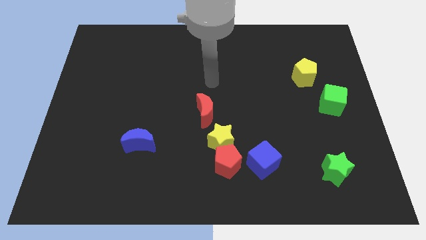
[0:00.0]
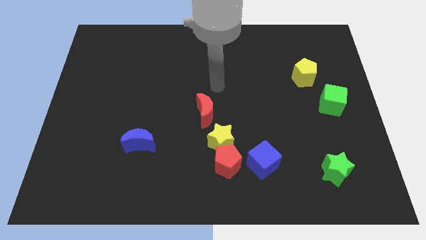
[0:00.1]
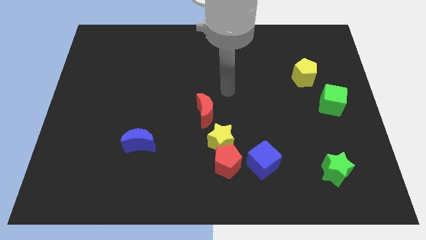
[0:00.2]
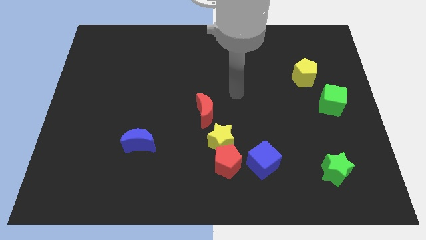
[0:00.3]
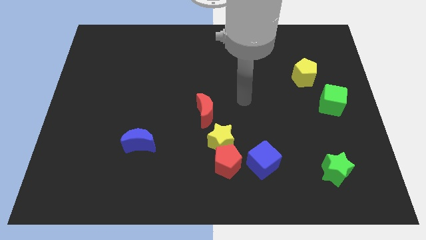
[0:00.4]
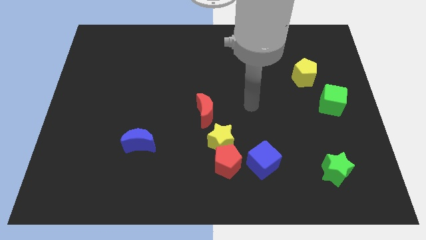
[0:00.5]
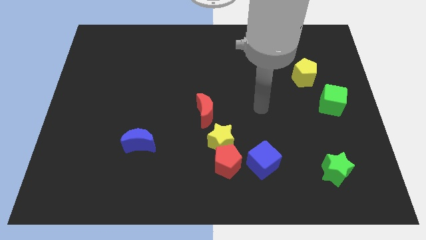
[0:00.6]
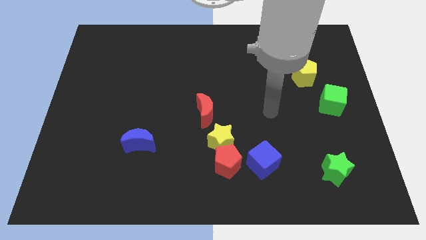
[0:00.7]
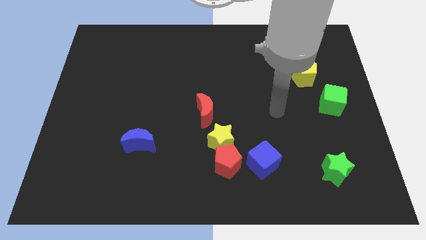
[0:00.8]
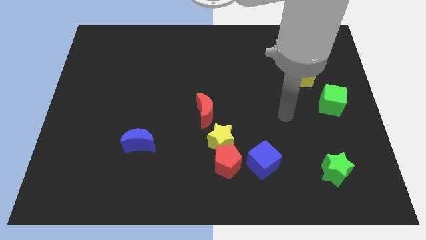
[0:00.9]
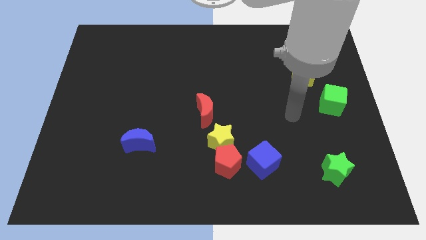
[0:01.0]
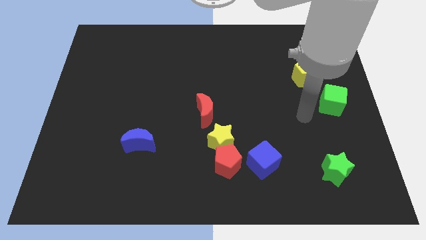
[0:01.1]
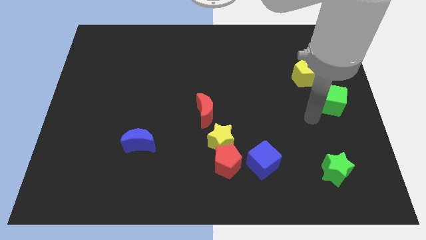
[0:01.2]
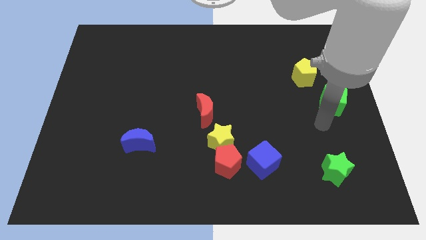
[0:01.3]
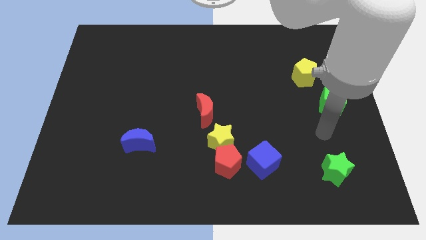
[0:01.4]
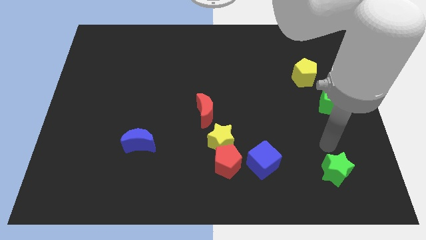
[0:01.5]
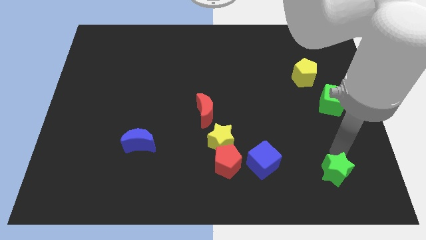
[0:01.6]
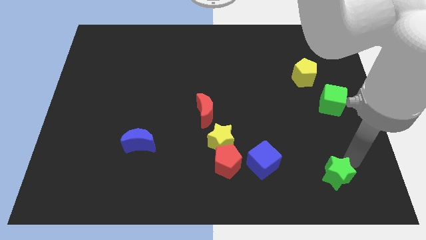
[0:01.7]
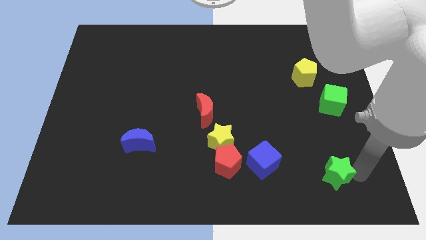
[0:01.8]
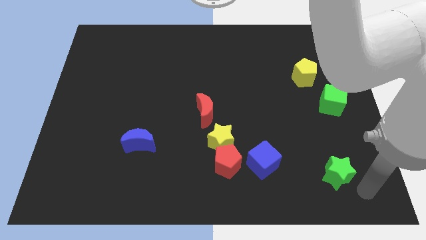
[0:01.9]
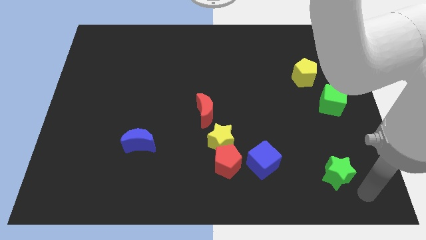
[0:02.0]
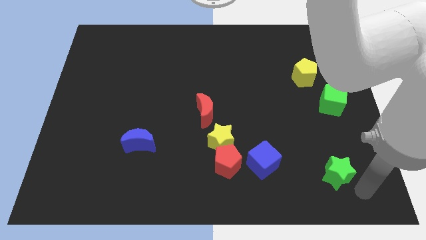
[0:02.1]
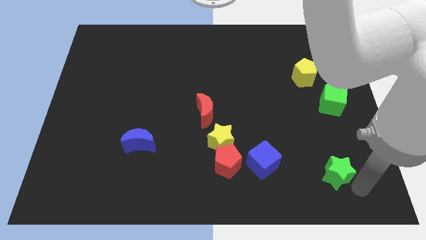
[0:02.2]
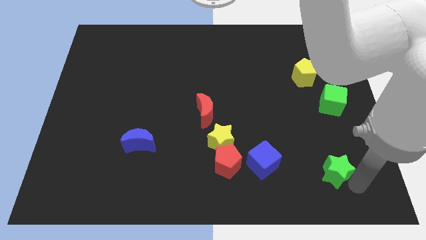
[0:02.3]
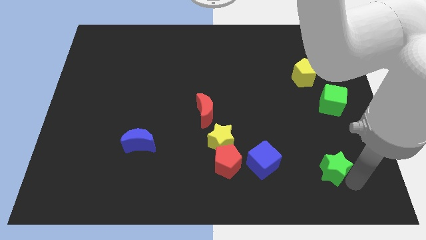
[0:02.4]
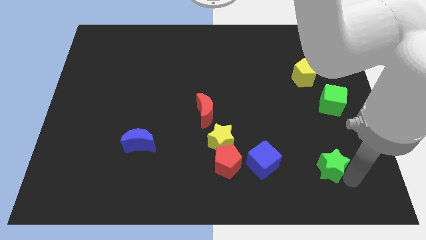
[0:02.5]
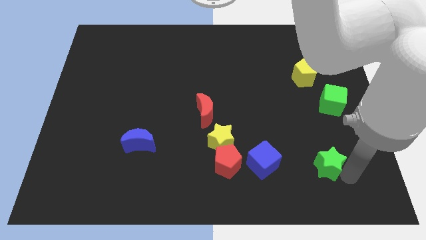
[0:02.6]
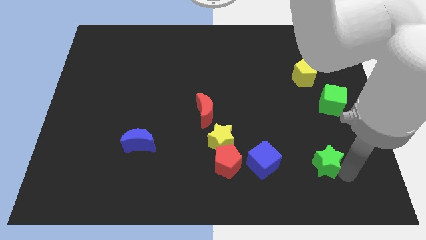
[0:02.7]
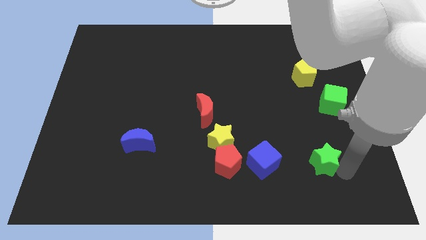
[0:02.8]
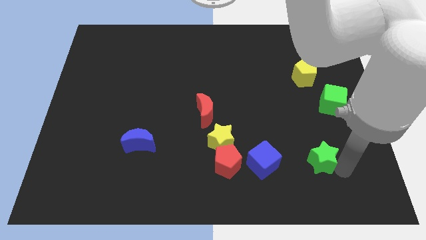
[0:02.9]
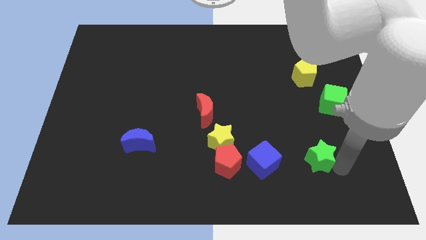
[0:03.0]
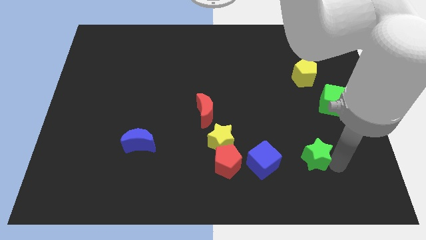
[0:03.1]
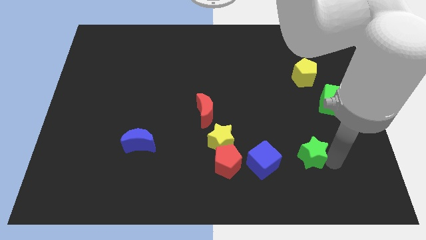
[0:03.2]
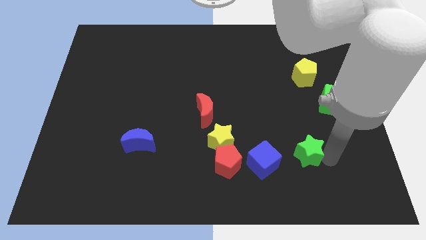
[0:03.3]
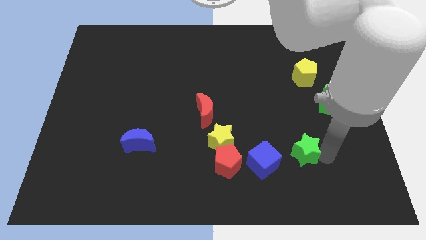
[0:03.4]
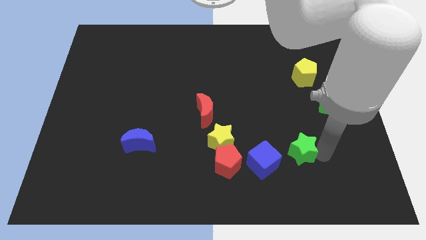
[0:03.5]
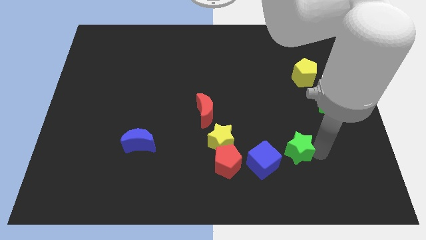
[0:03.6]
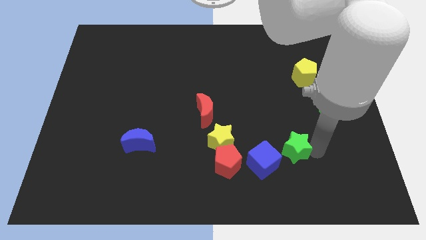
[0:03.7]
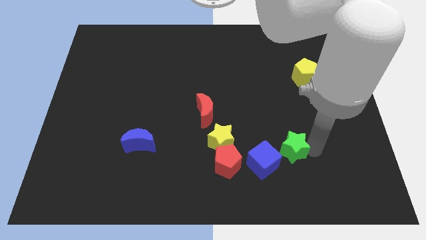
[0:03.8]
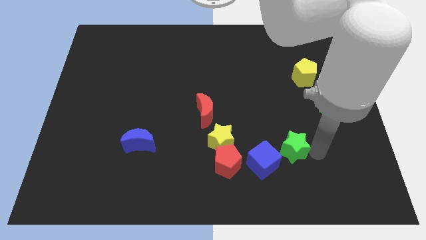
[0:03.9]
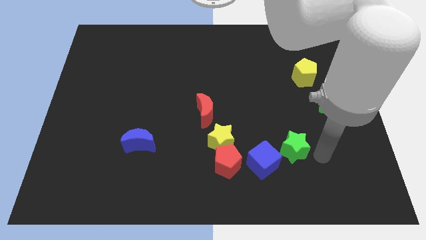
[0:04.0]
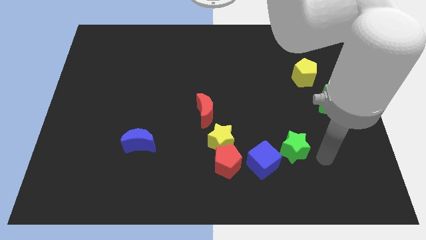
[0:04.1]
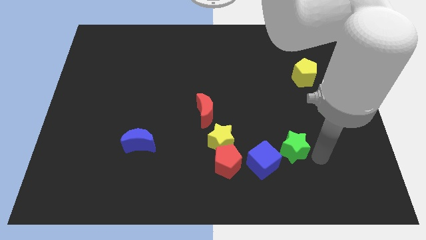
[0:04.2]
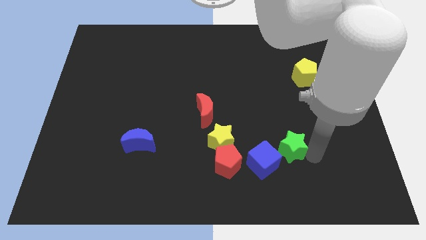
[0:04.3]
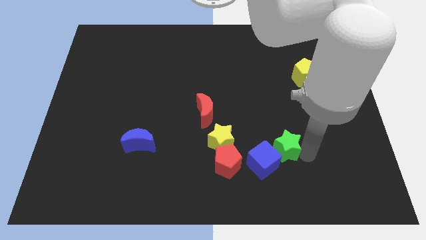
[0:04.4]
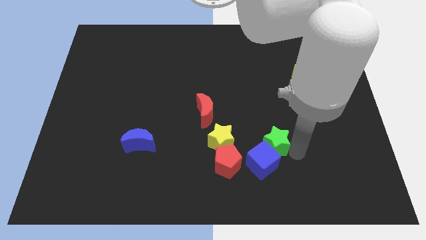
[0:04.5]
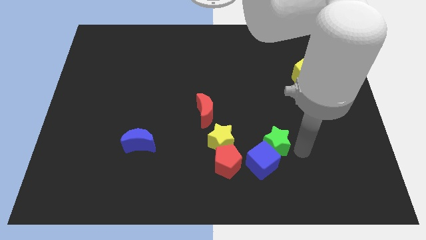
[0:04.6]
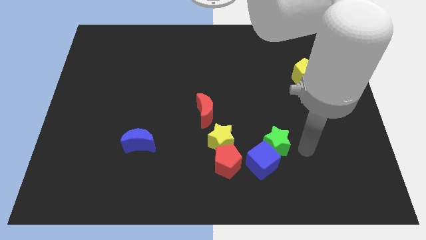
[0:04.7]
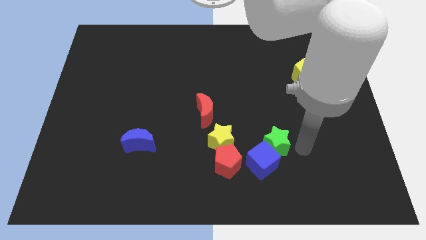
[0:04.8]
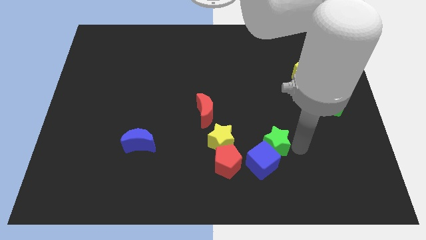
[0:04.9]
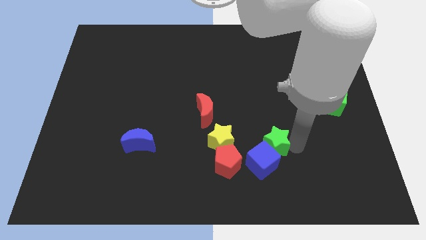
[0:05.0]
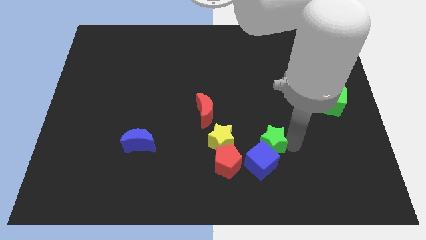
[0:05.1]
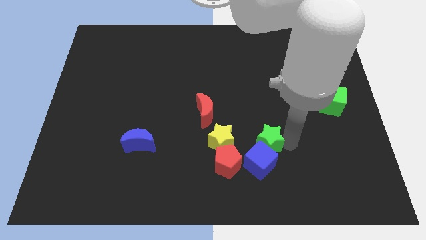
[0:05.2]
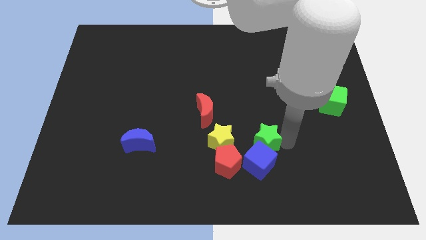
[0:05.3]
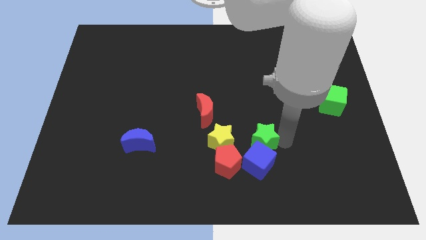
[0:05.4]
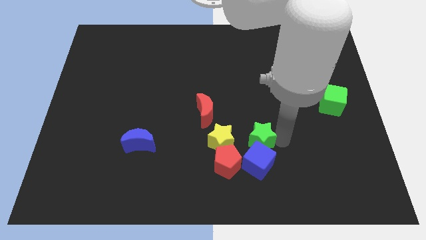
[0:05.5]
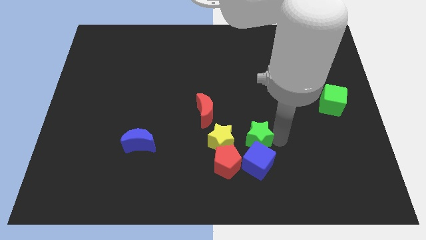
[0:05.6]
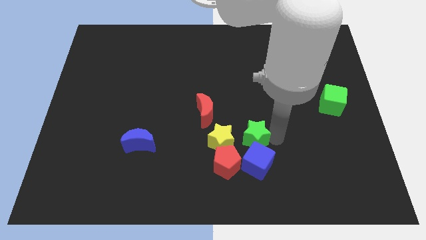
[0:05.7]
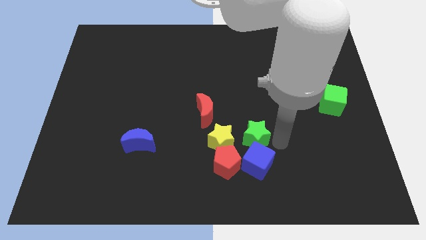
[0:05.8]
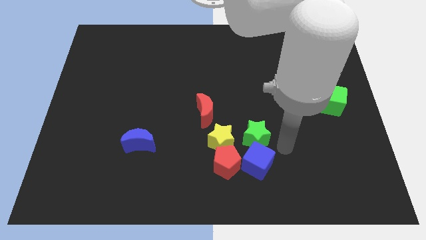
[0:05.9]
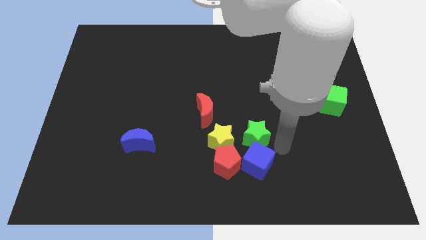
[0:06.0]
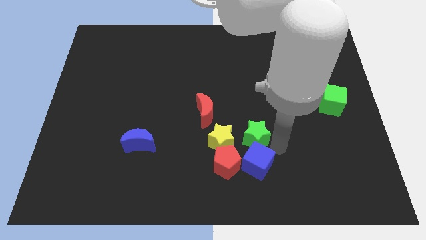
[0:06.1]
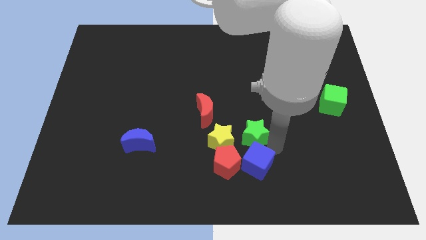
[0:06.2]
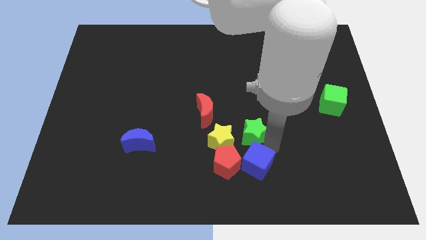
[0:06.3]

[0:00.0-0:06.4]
push the green star to the bottom right of the red moon

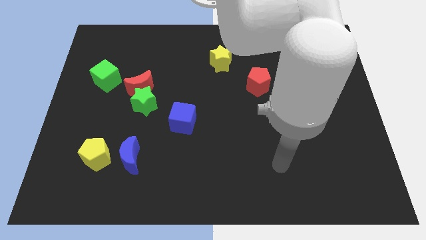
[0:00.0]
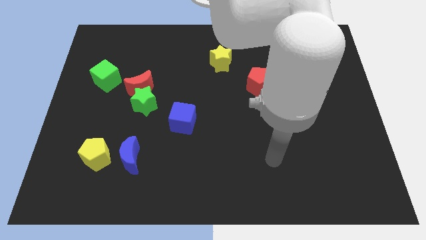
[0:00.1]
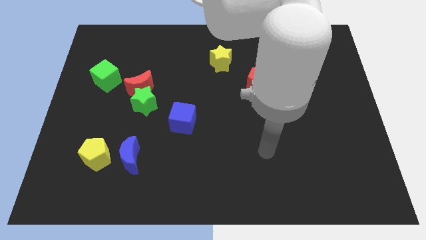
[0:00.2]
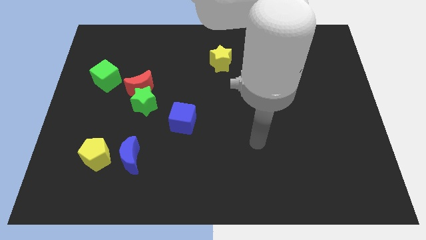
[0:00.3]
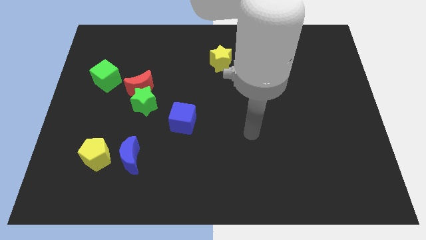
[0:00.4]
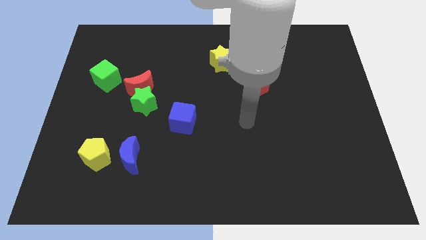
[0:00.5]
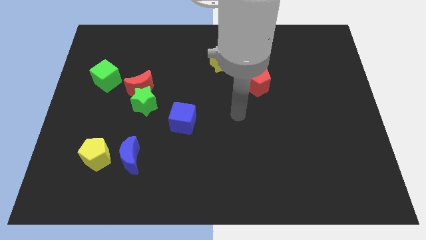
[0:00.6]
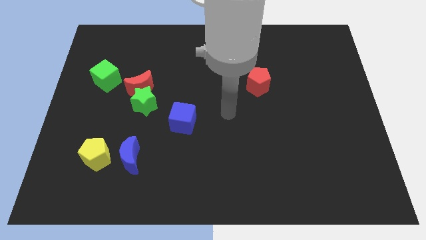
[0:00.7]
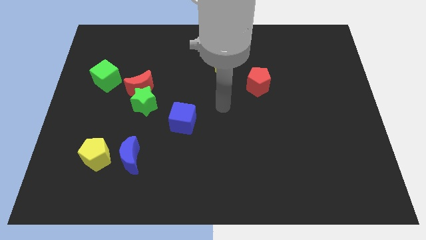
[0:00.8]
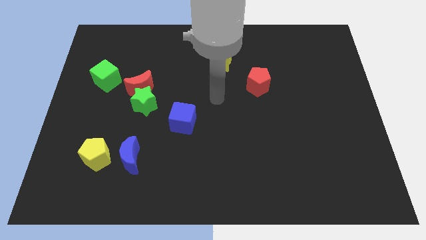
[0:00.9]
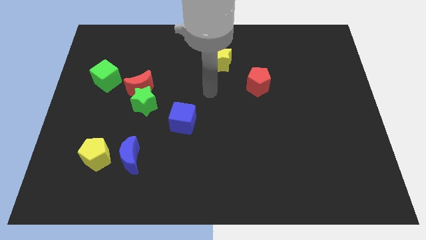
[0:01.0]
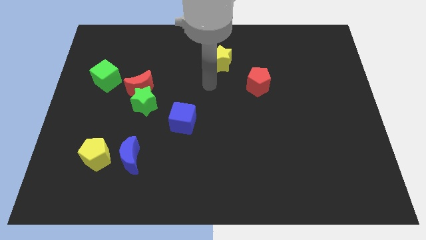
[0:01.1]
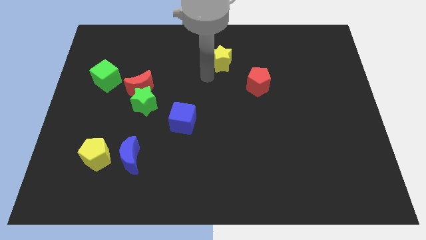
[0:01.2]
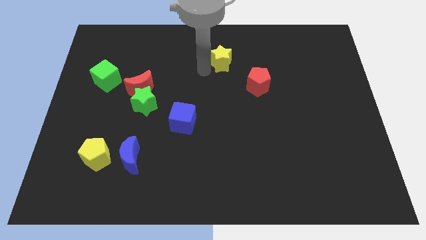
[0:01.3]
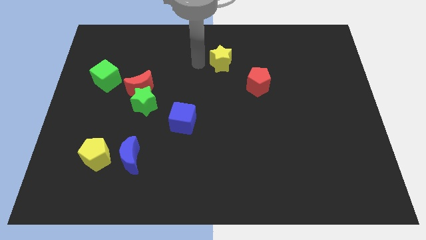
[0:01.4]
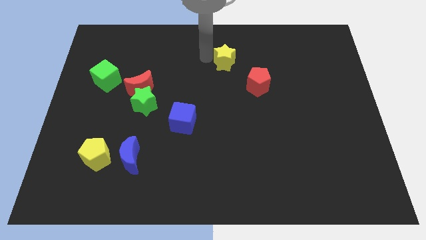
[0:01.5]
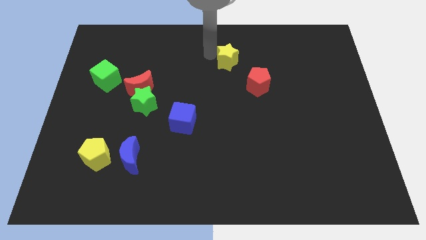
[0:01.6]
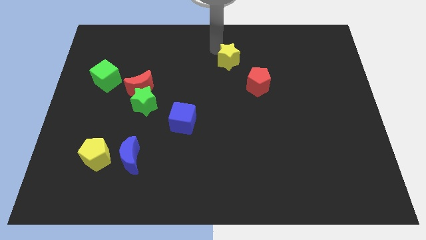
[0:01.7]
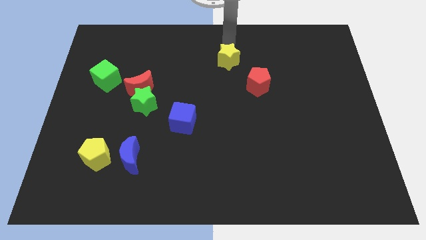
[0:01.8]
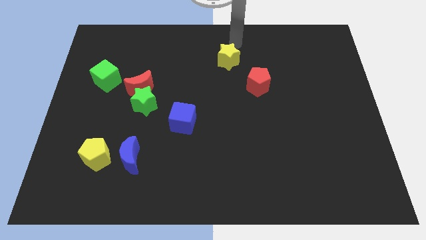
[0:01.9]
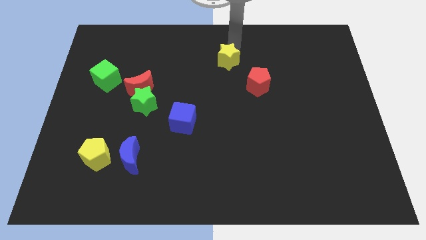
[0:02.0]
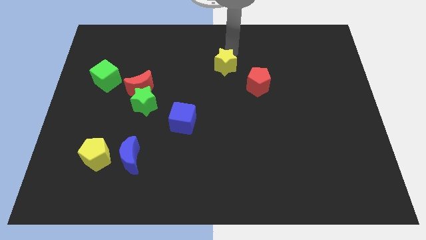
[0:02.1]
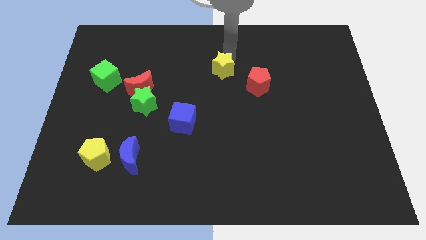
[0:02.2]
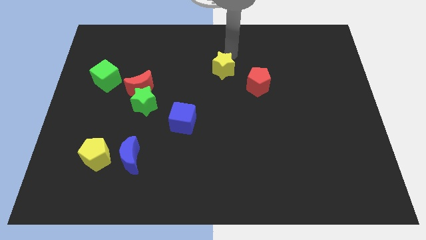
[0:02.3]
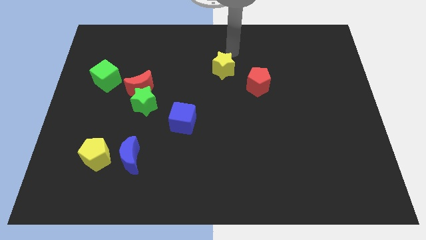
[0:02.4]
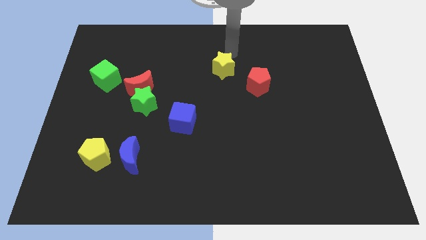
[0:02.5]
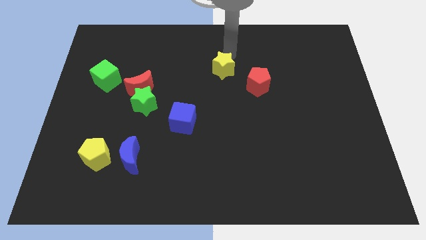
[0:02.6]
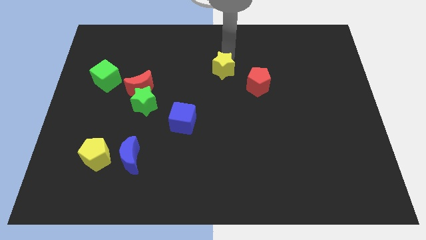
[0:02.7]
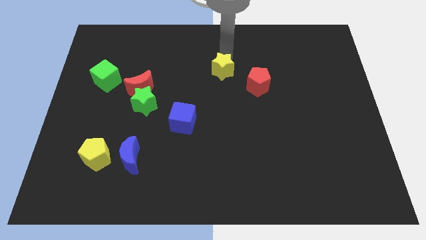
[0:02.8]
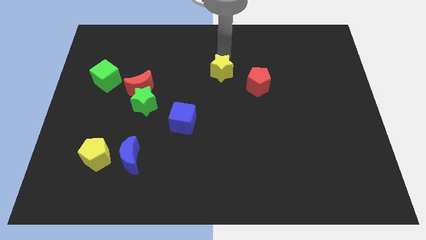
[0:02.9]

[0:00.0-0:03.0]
put the yellow star to the left side of the red pentagon
